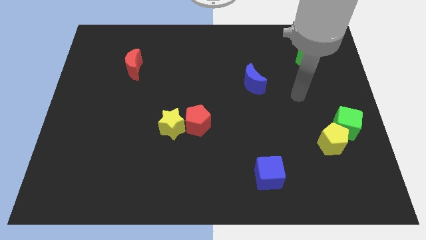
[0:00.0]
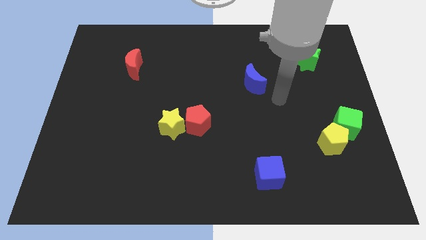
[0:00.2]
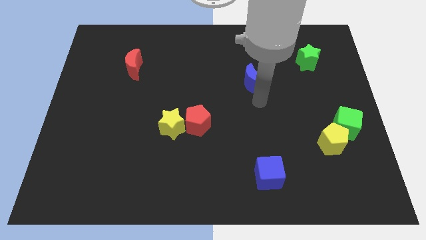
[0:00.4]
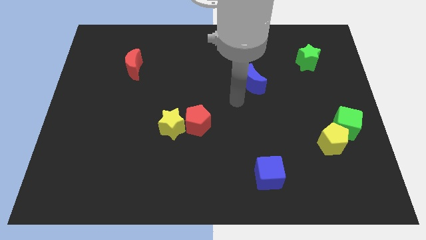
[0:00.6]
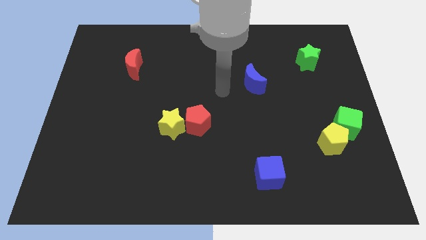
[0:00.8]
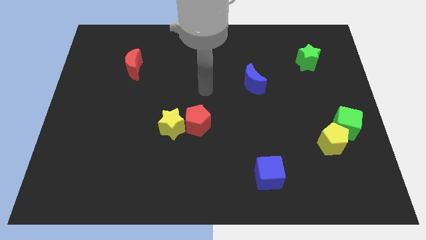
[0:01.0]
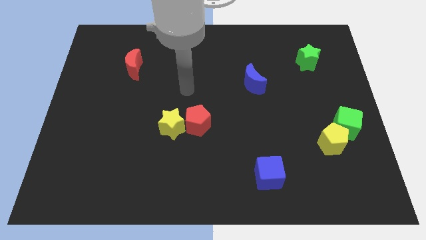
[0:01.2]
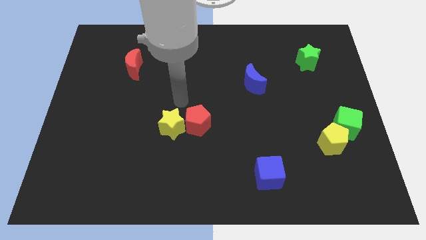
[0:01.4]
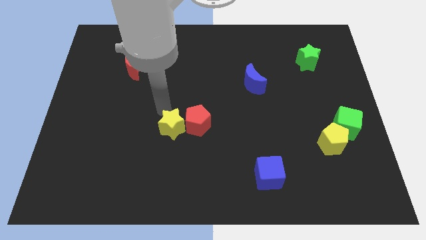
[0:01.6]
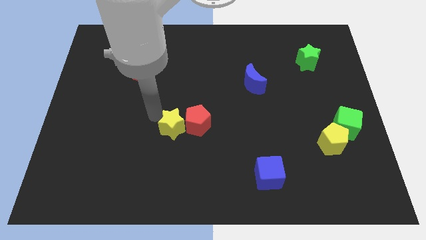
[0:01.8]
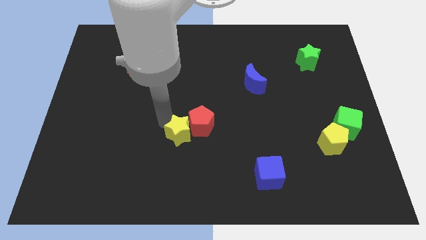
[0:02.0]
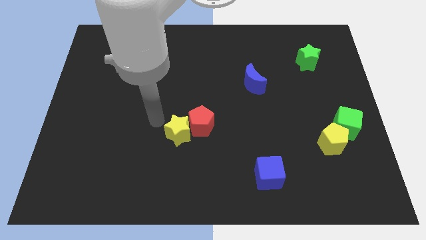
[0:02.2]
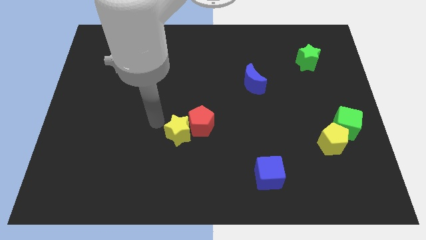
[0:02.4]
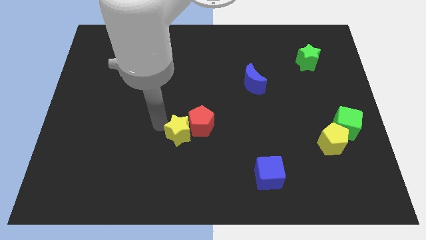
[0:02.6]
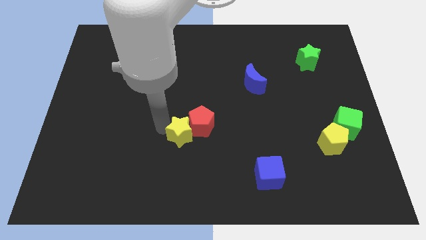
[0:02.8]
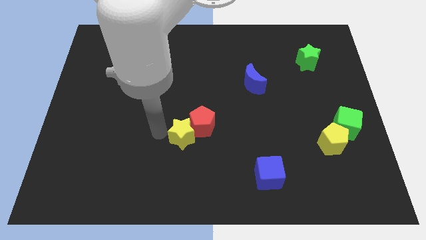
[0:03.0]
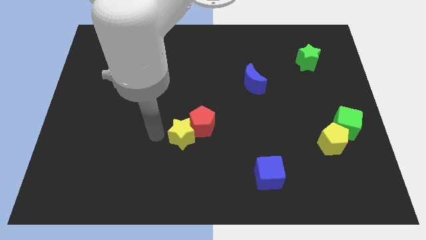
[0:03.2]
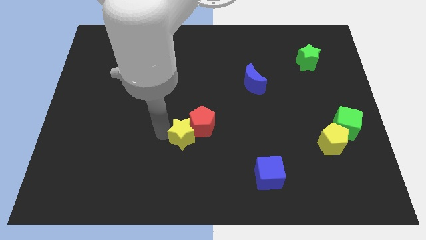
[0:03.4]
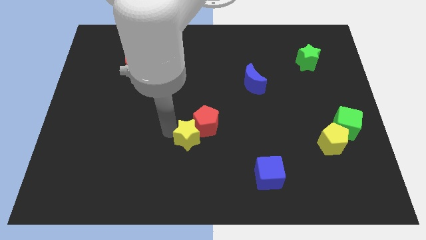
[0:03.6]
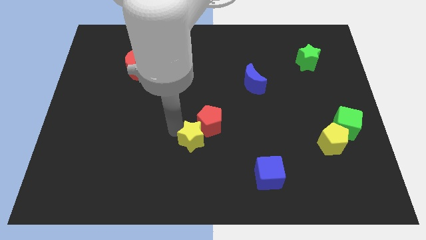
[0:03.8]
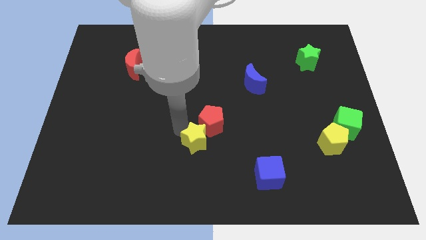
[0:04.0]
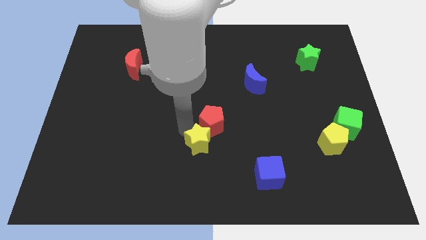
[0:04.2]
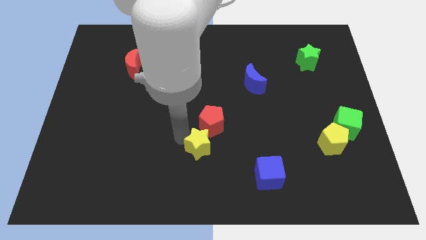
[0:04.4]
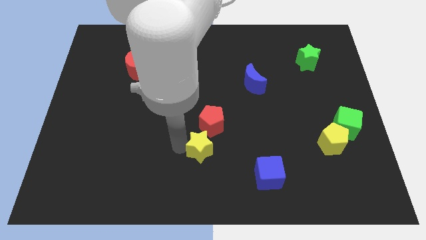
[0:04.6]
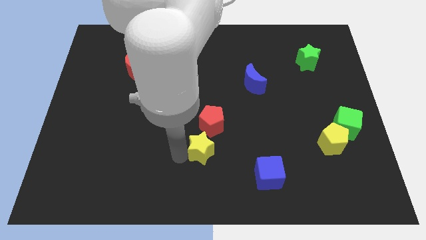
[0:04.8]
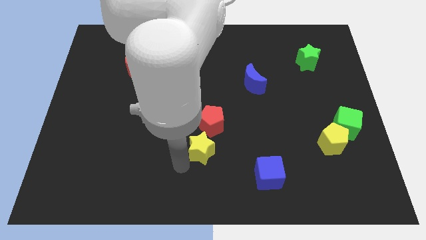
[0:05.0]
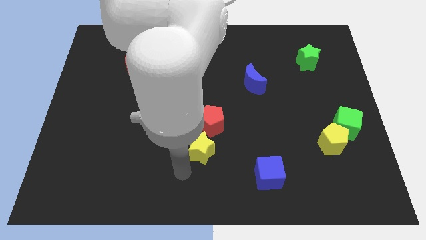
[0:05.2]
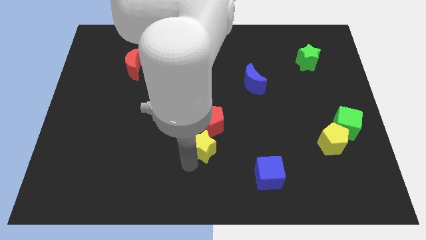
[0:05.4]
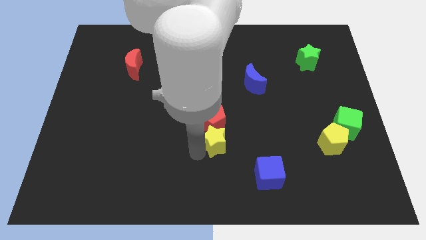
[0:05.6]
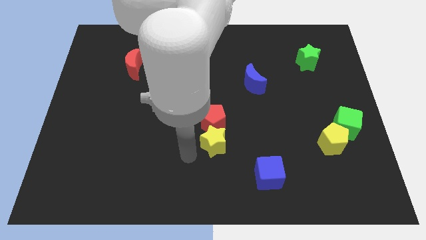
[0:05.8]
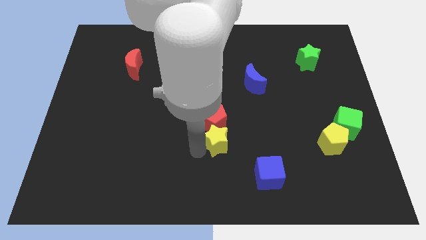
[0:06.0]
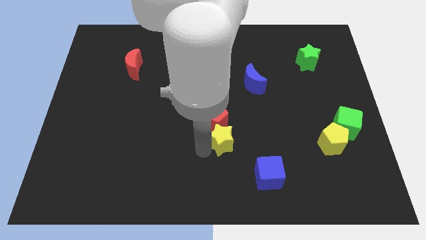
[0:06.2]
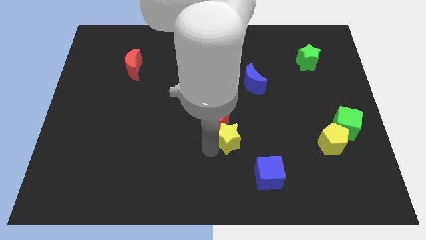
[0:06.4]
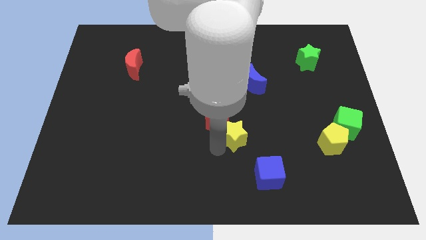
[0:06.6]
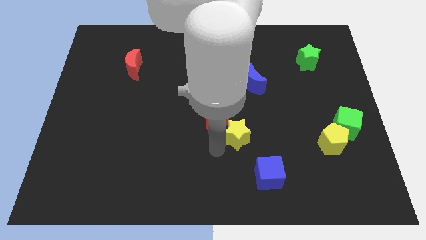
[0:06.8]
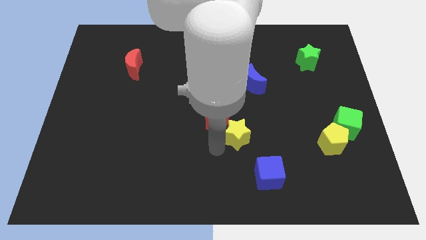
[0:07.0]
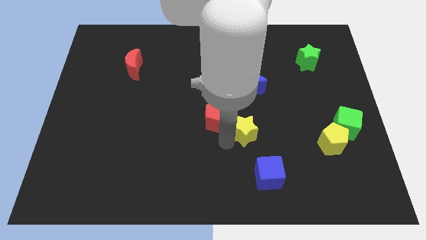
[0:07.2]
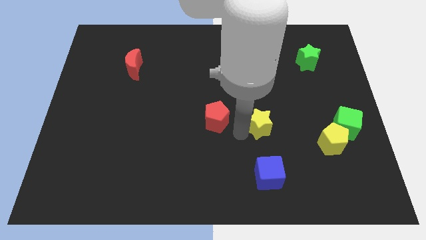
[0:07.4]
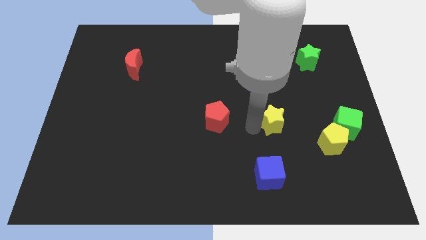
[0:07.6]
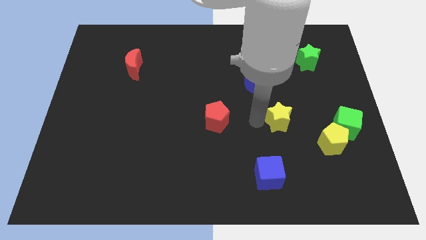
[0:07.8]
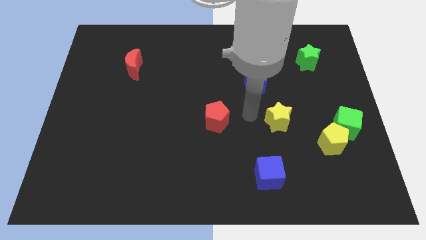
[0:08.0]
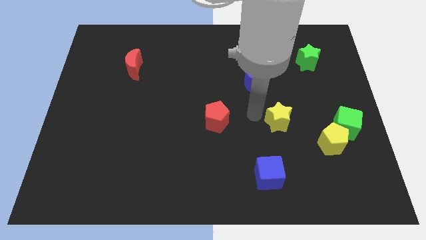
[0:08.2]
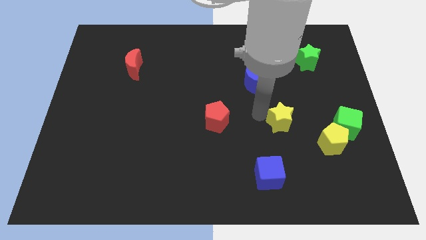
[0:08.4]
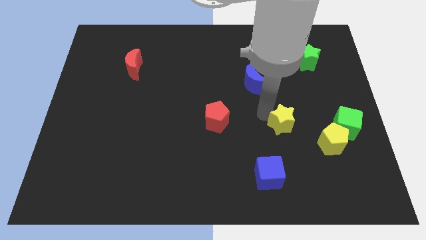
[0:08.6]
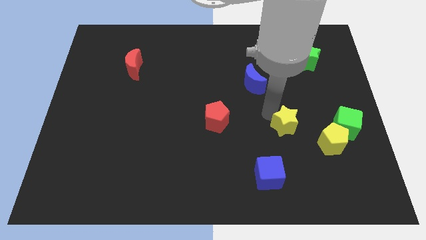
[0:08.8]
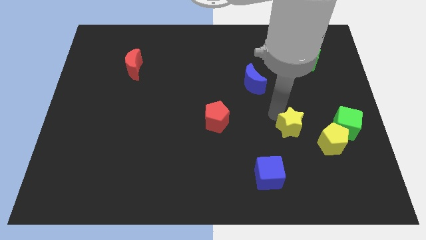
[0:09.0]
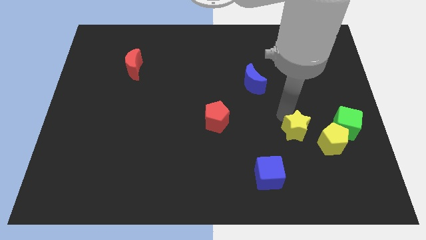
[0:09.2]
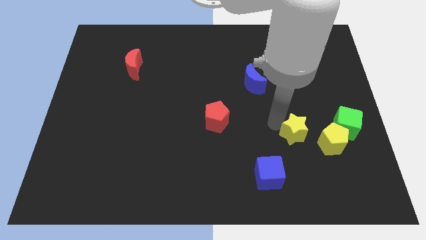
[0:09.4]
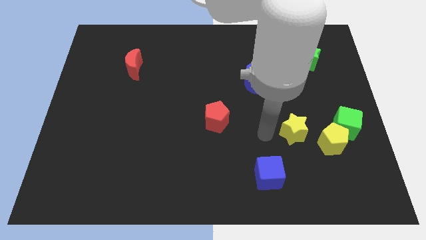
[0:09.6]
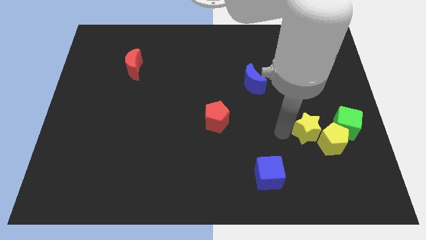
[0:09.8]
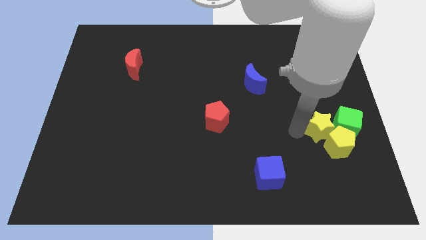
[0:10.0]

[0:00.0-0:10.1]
slide the yellow star to the green cube

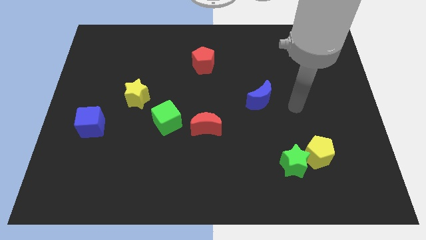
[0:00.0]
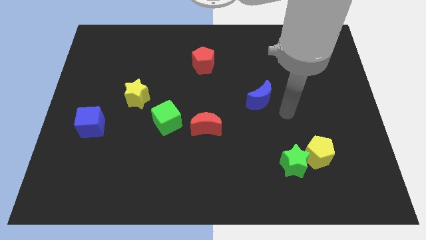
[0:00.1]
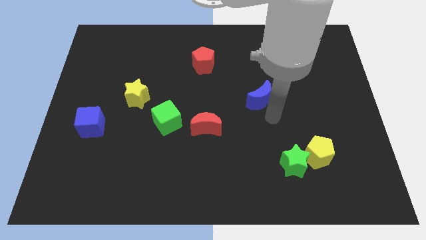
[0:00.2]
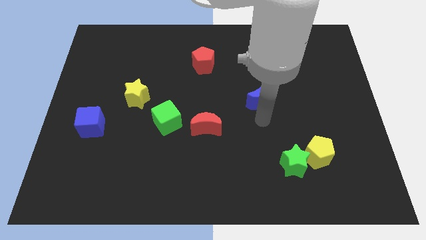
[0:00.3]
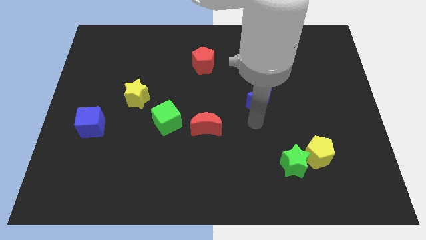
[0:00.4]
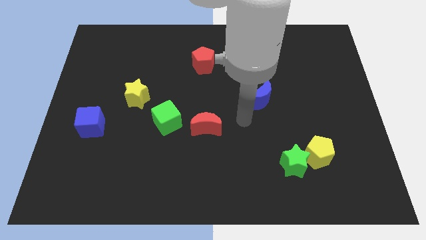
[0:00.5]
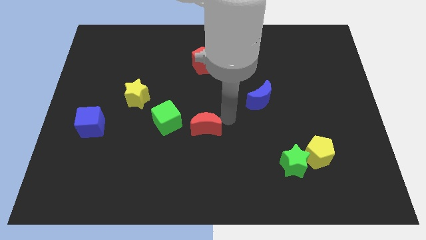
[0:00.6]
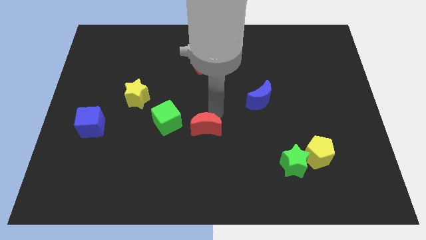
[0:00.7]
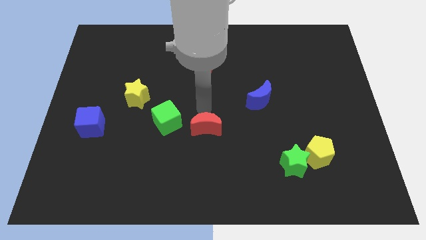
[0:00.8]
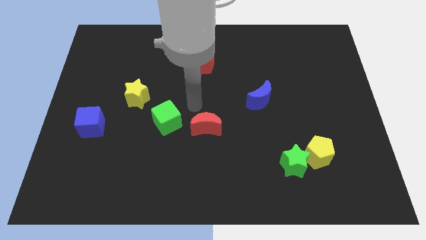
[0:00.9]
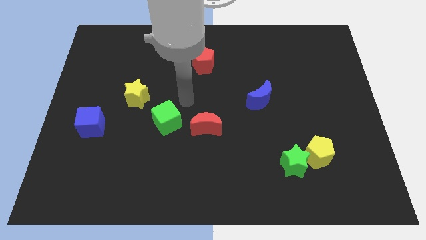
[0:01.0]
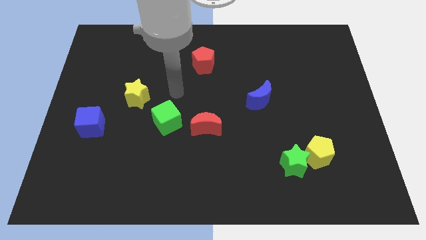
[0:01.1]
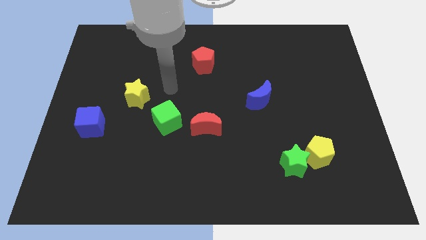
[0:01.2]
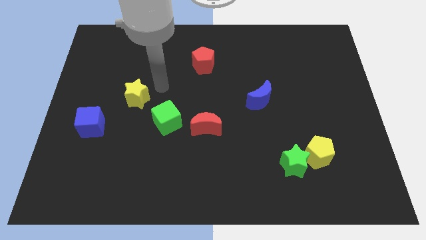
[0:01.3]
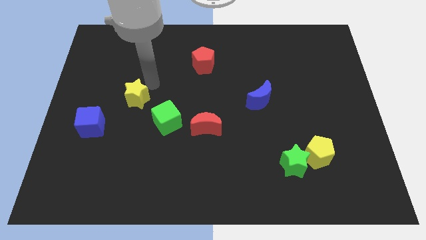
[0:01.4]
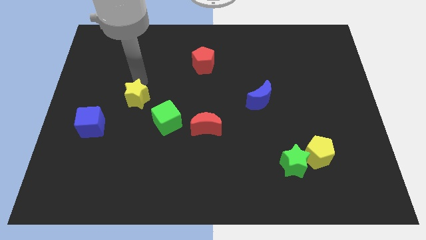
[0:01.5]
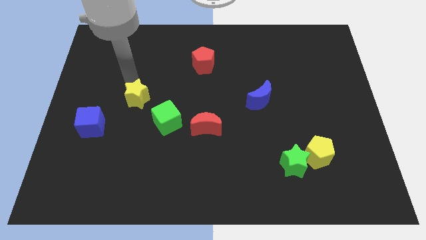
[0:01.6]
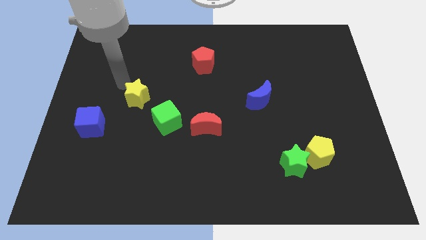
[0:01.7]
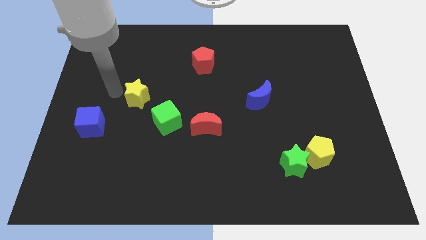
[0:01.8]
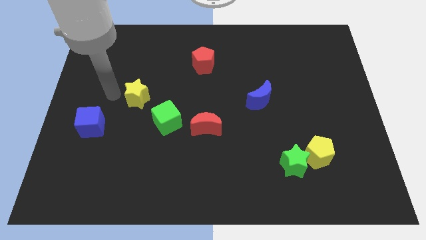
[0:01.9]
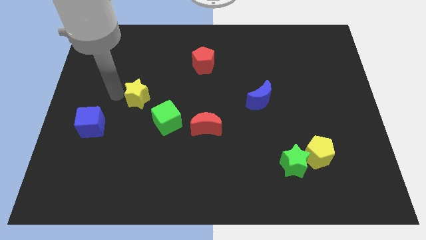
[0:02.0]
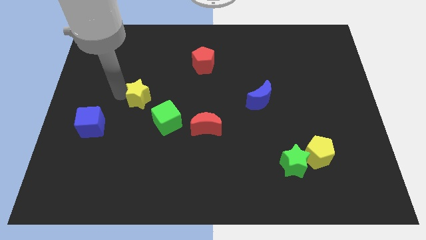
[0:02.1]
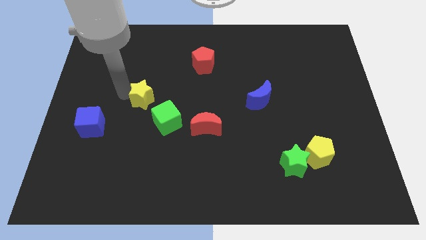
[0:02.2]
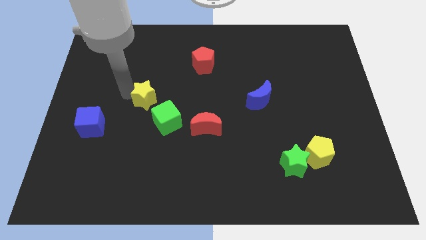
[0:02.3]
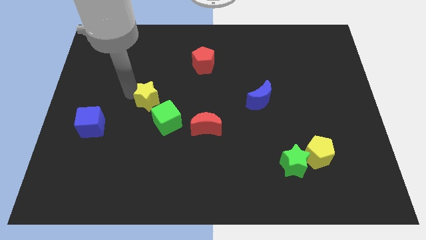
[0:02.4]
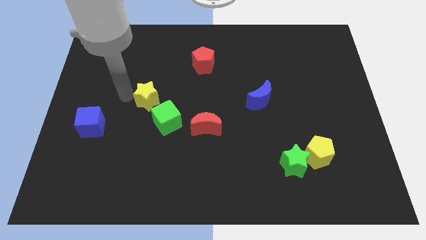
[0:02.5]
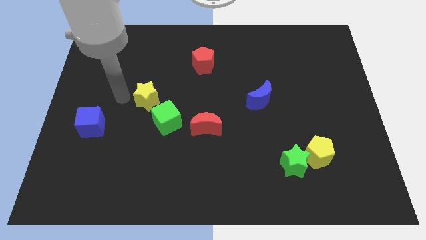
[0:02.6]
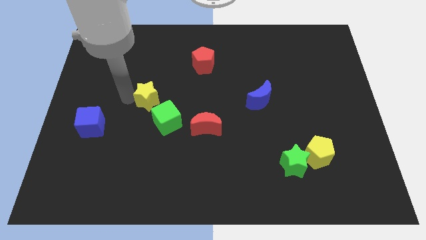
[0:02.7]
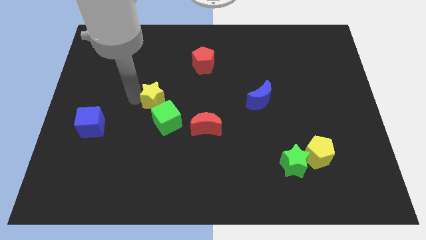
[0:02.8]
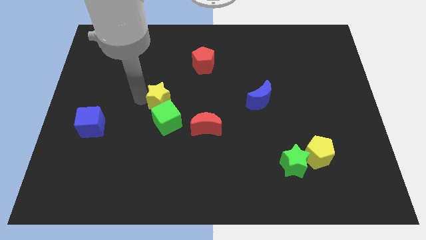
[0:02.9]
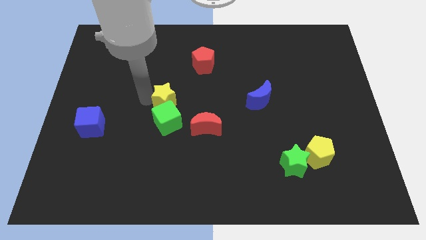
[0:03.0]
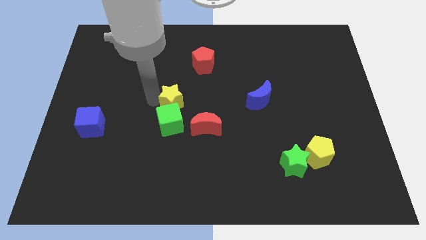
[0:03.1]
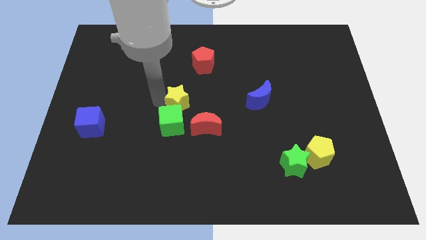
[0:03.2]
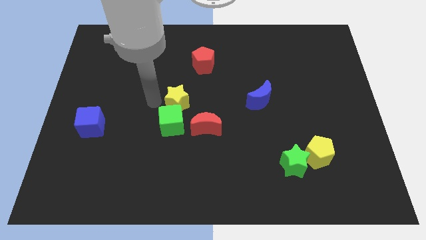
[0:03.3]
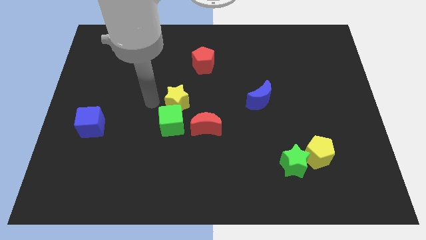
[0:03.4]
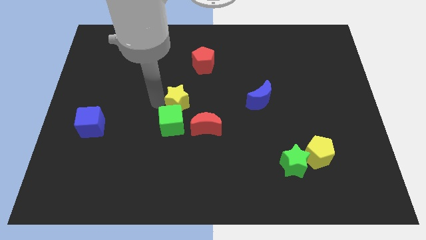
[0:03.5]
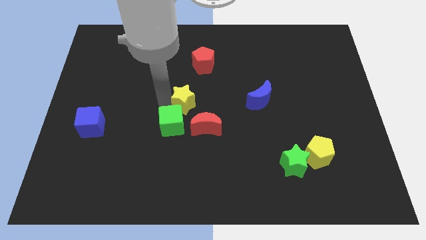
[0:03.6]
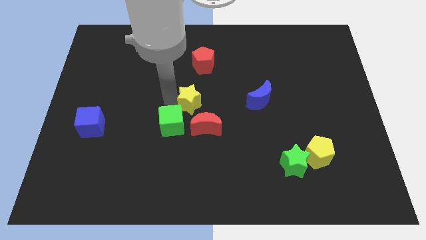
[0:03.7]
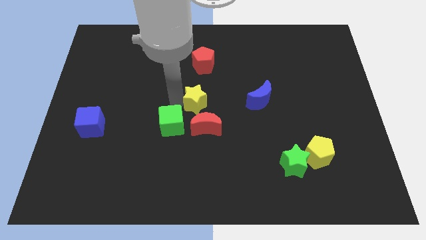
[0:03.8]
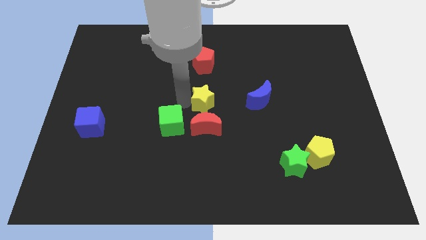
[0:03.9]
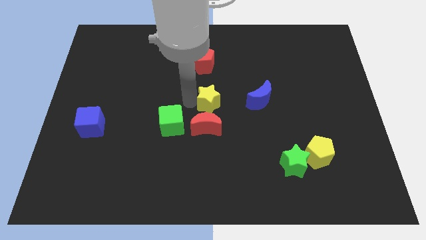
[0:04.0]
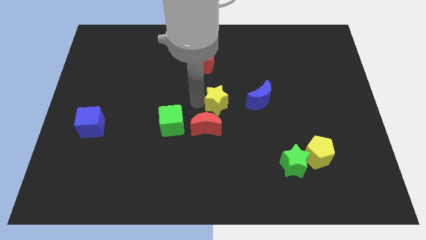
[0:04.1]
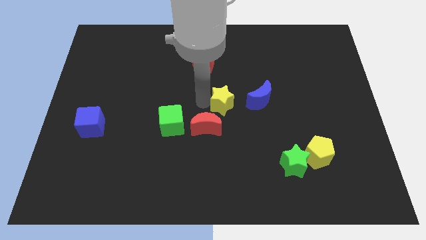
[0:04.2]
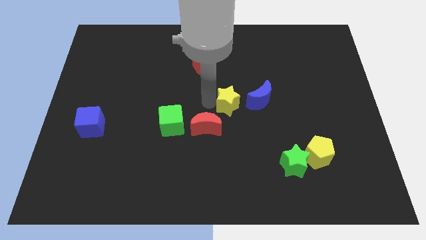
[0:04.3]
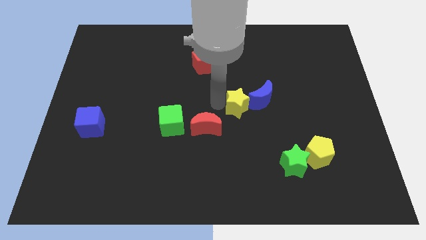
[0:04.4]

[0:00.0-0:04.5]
push the yellow star next to the blue moon
